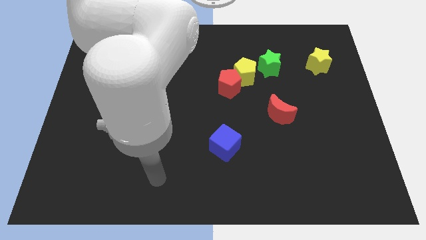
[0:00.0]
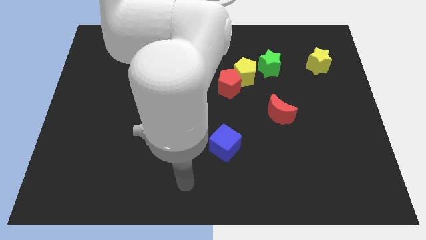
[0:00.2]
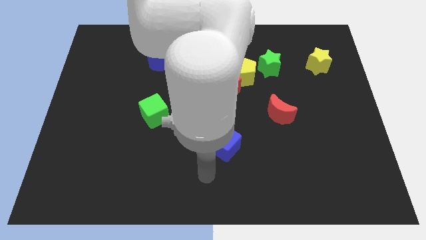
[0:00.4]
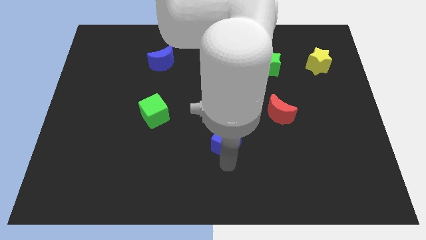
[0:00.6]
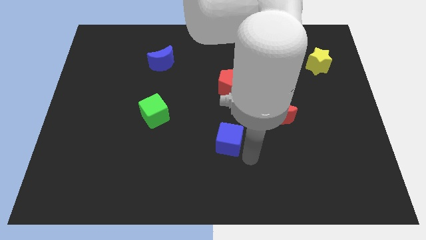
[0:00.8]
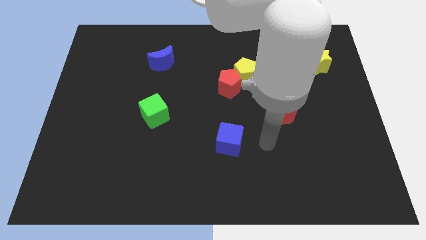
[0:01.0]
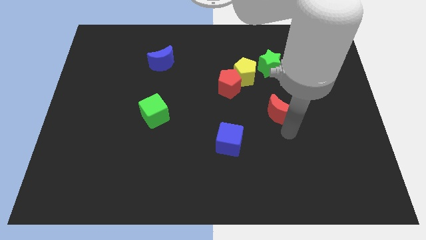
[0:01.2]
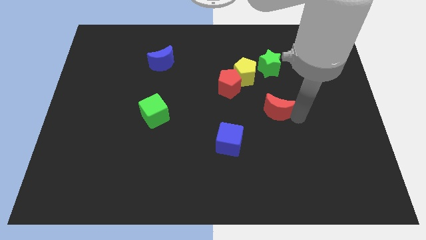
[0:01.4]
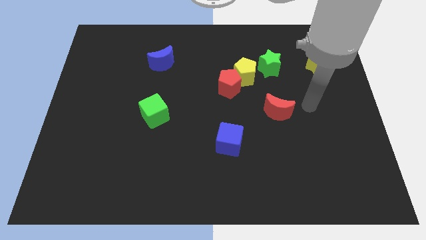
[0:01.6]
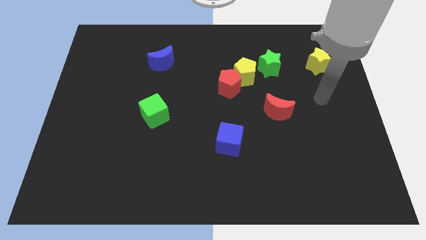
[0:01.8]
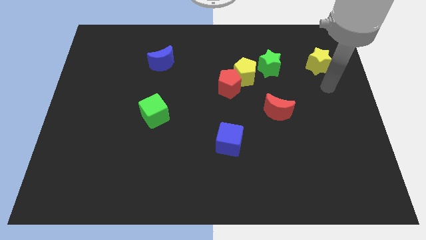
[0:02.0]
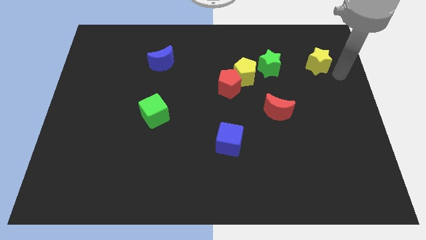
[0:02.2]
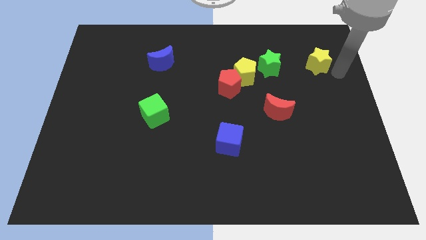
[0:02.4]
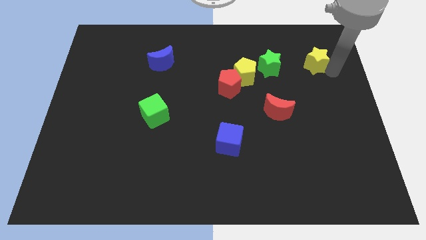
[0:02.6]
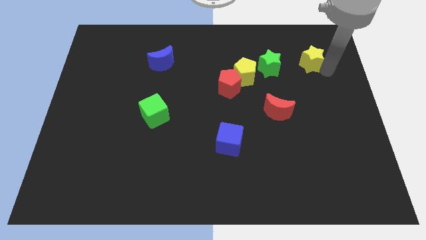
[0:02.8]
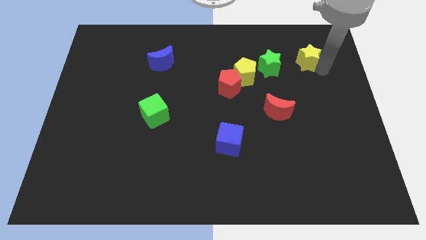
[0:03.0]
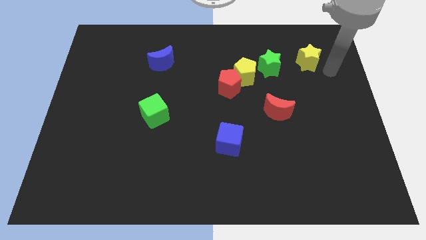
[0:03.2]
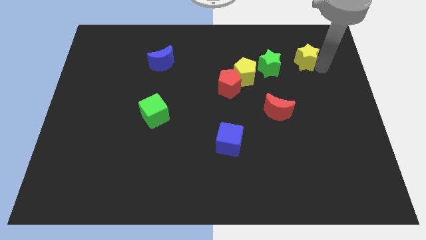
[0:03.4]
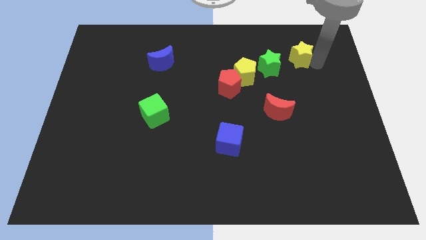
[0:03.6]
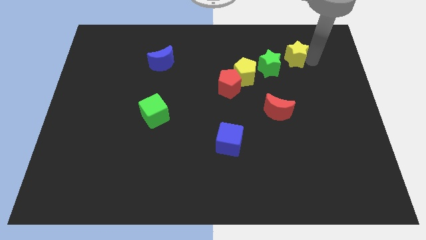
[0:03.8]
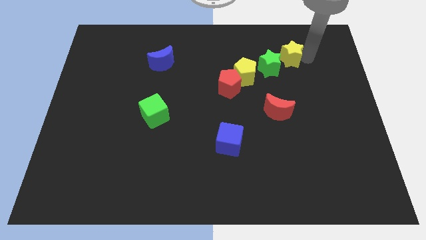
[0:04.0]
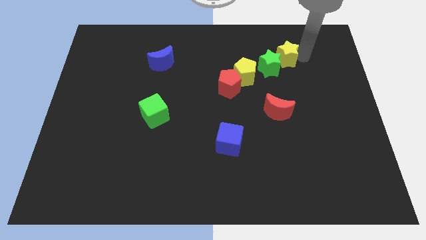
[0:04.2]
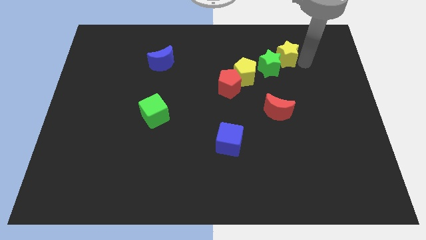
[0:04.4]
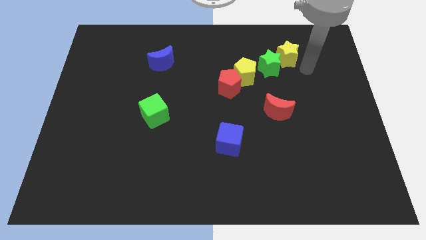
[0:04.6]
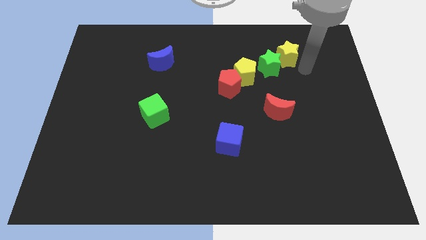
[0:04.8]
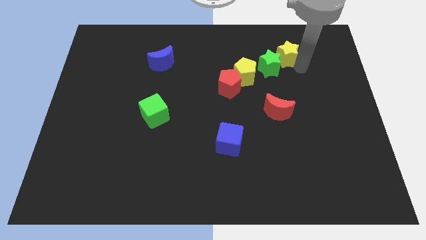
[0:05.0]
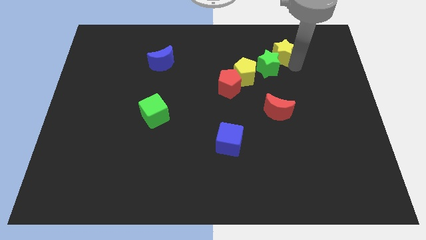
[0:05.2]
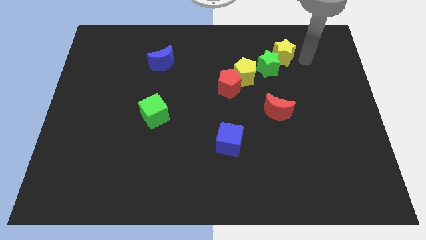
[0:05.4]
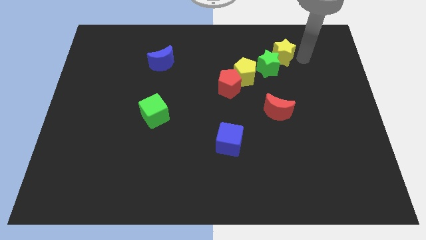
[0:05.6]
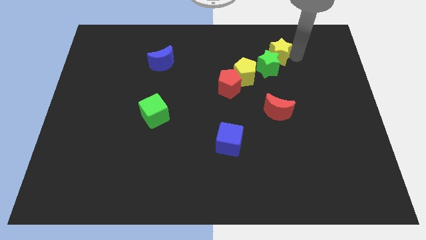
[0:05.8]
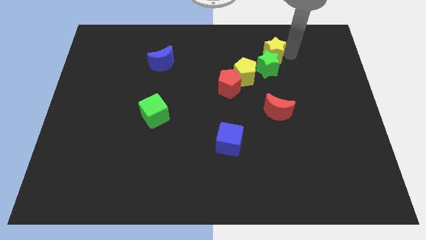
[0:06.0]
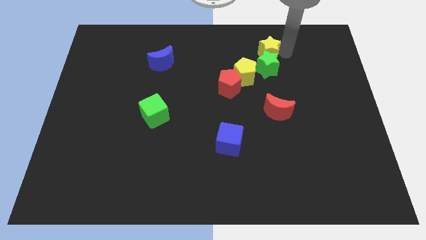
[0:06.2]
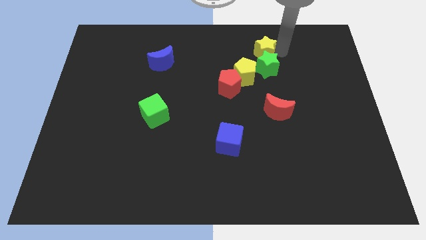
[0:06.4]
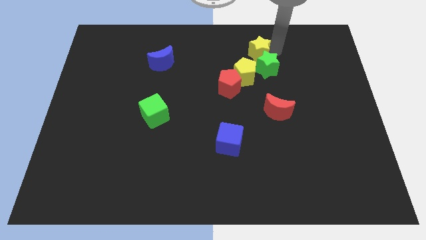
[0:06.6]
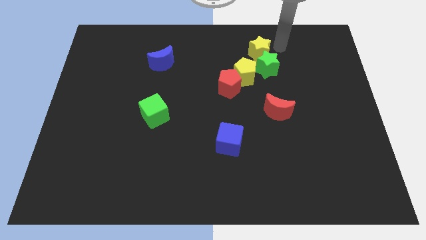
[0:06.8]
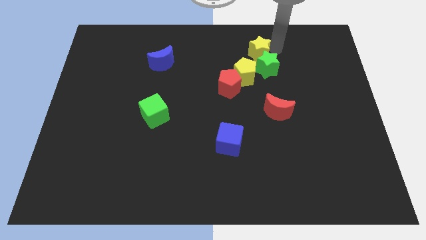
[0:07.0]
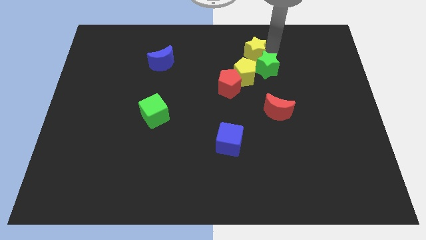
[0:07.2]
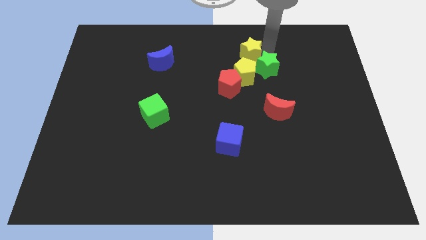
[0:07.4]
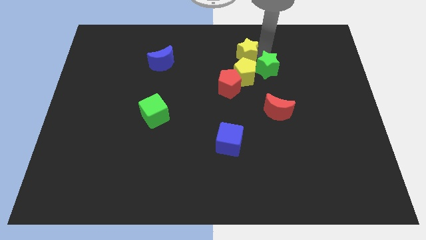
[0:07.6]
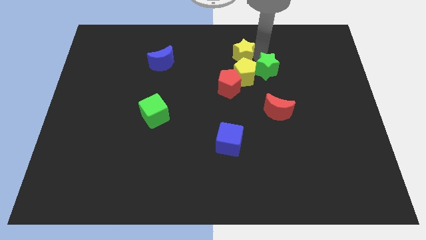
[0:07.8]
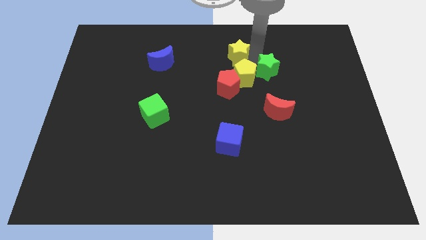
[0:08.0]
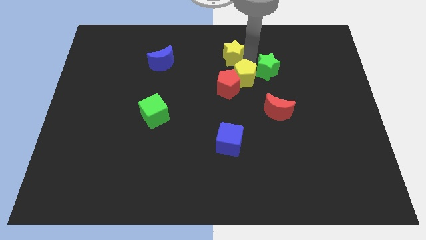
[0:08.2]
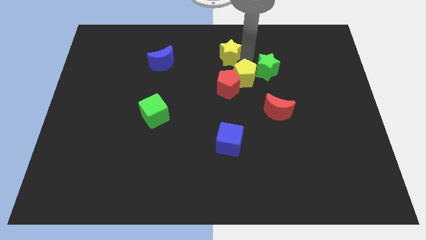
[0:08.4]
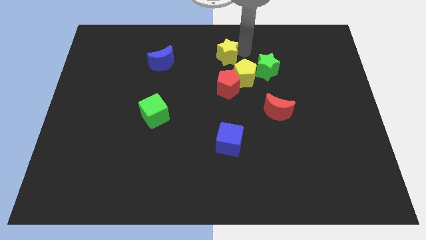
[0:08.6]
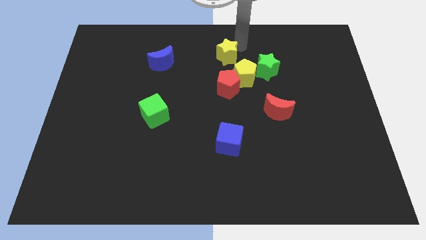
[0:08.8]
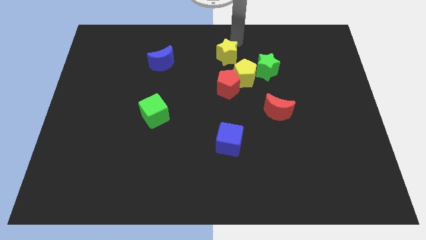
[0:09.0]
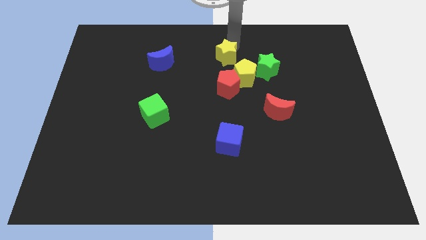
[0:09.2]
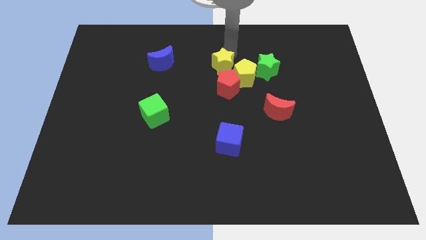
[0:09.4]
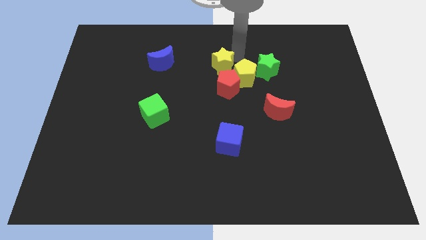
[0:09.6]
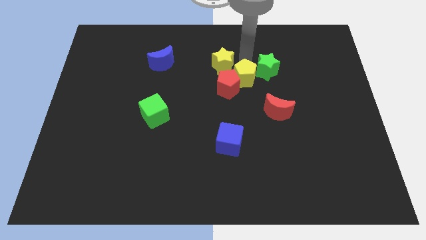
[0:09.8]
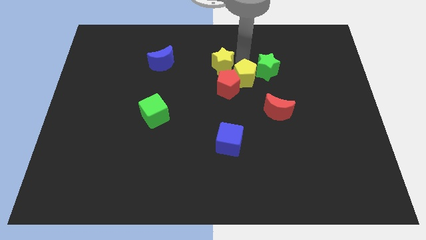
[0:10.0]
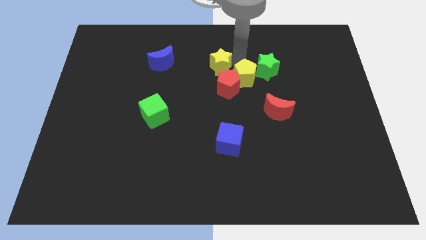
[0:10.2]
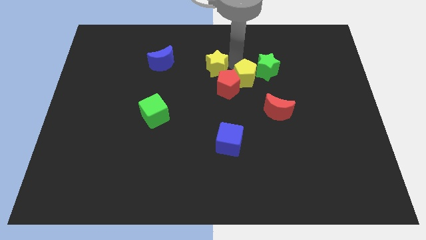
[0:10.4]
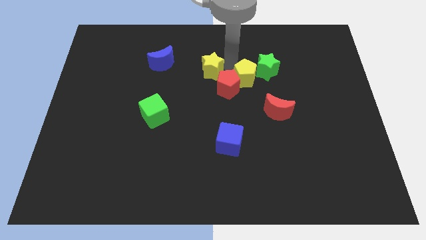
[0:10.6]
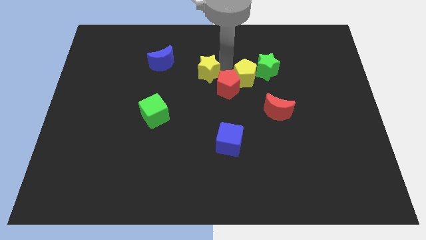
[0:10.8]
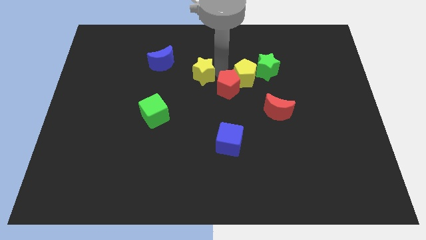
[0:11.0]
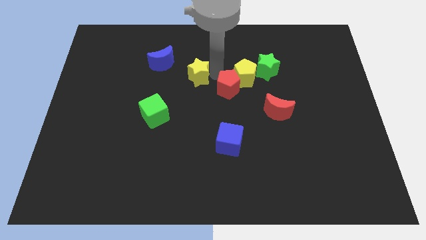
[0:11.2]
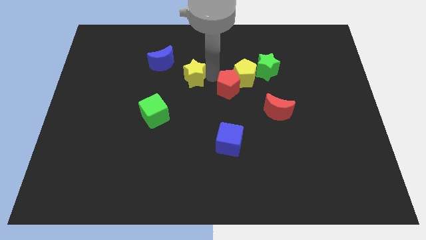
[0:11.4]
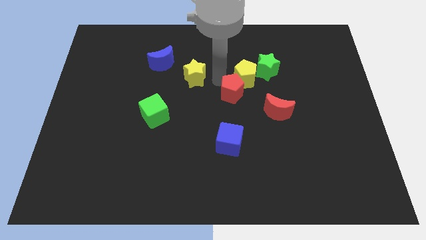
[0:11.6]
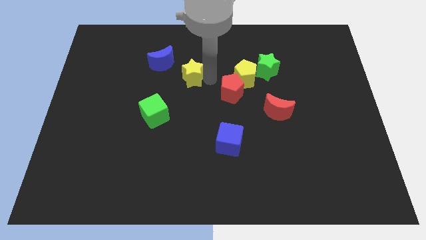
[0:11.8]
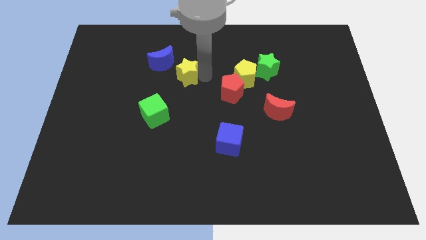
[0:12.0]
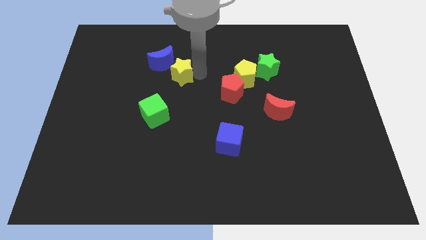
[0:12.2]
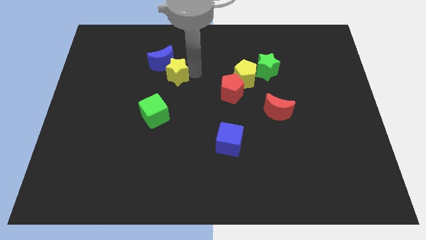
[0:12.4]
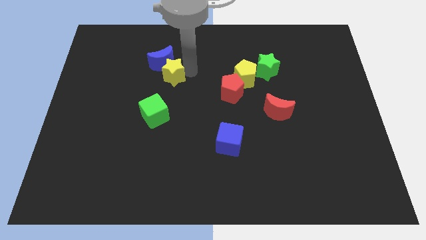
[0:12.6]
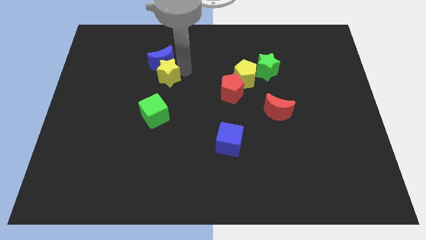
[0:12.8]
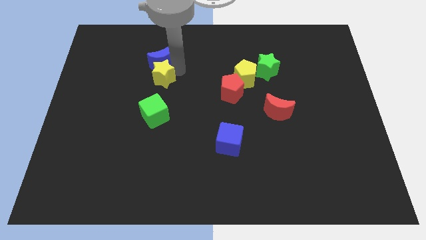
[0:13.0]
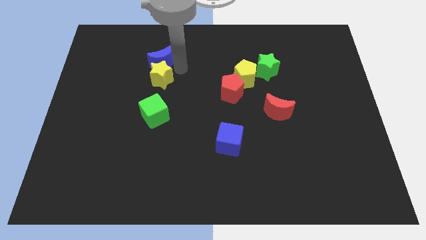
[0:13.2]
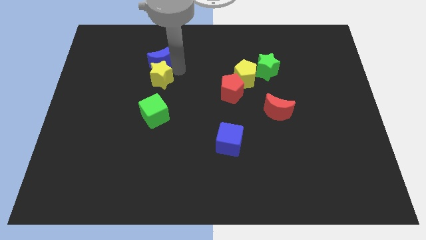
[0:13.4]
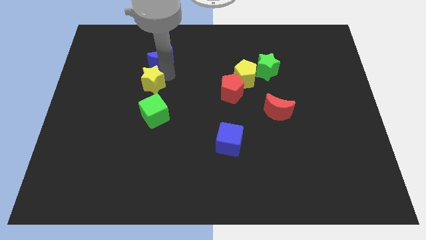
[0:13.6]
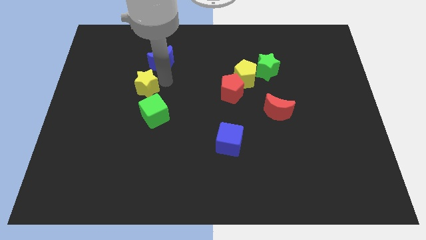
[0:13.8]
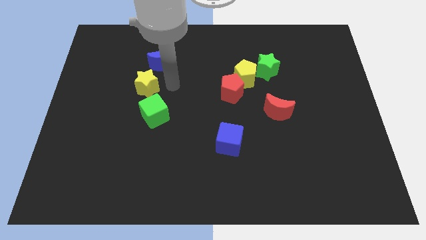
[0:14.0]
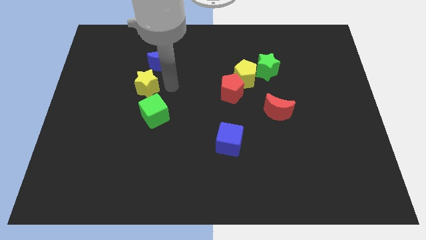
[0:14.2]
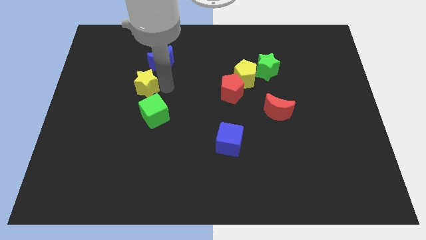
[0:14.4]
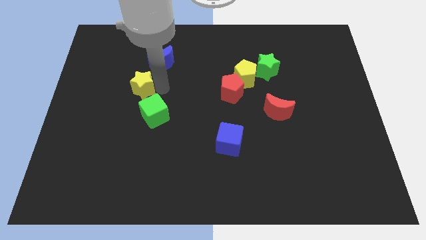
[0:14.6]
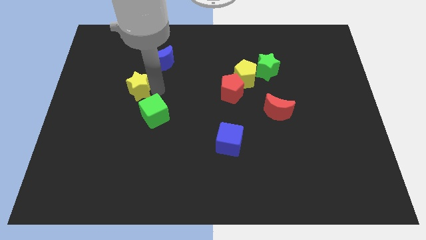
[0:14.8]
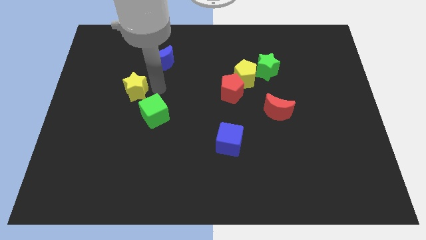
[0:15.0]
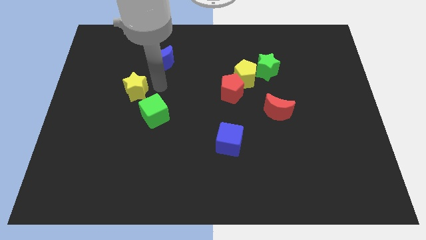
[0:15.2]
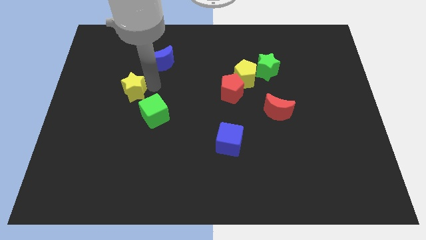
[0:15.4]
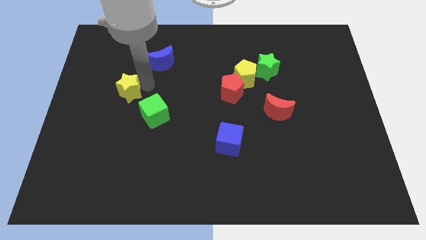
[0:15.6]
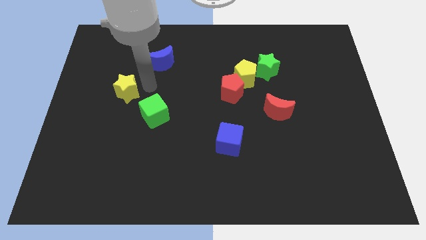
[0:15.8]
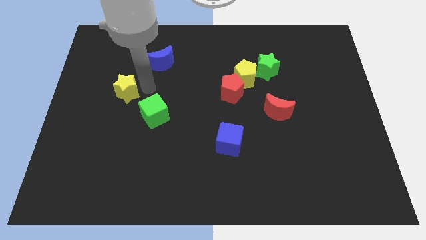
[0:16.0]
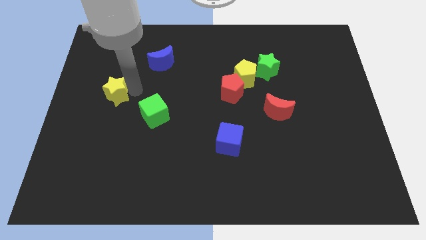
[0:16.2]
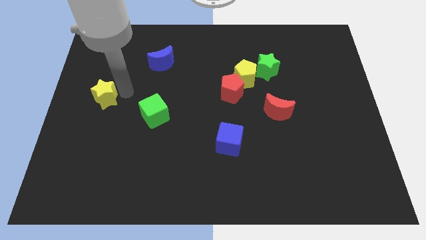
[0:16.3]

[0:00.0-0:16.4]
slide the yellow star to the left side of the board
